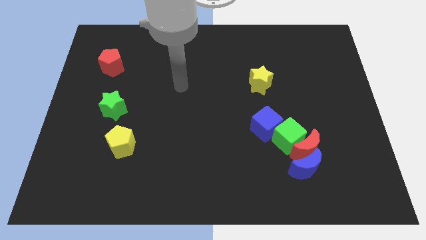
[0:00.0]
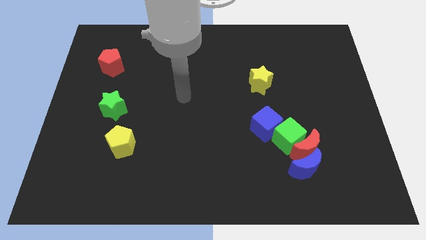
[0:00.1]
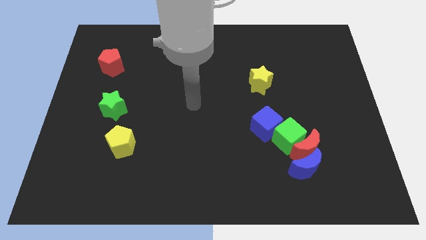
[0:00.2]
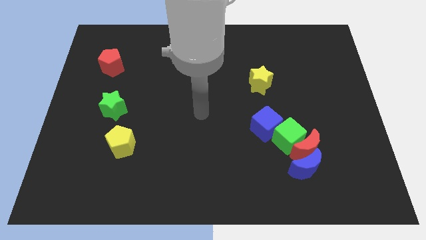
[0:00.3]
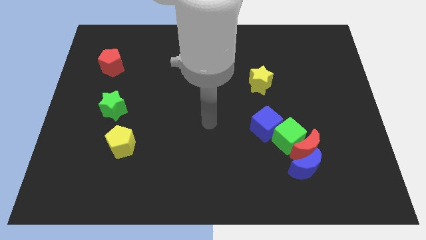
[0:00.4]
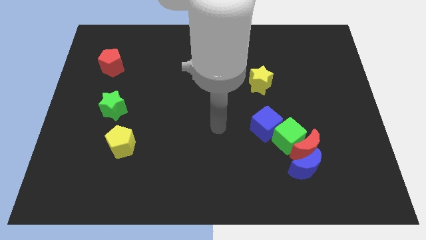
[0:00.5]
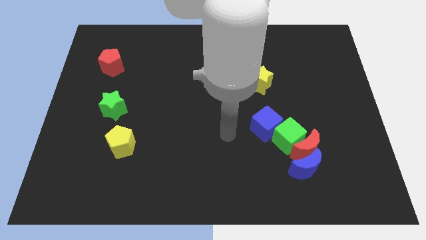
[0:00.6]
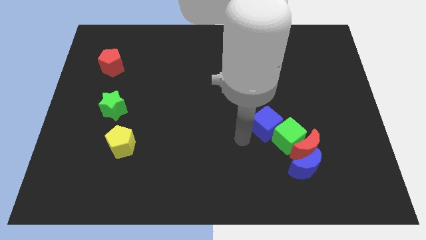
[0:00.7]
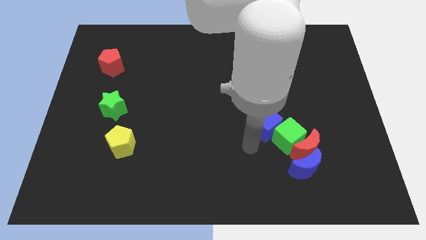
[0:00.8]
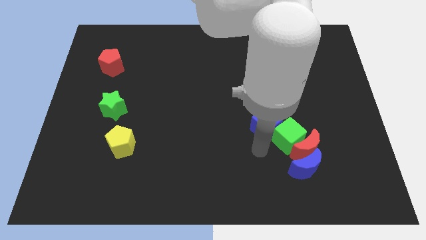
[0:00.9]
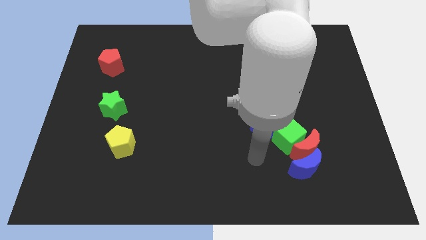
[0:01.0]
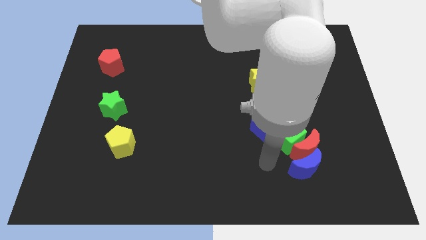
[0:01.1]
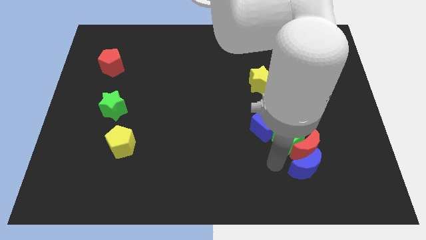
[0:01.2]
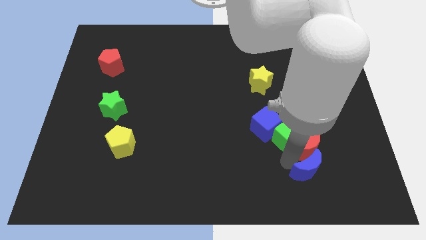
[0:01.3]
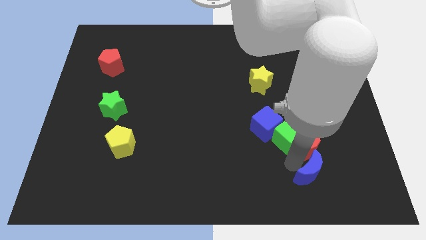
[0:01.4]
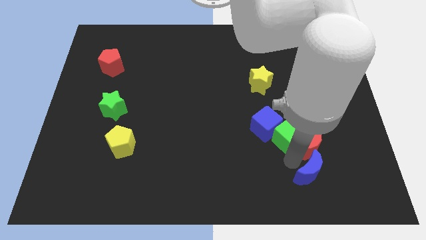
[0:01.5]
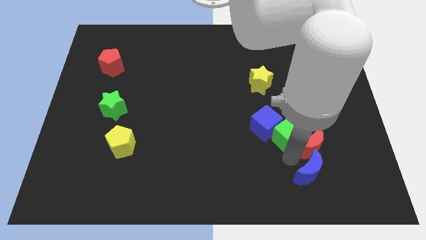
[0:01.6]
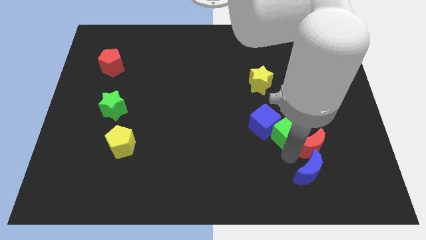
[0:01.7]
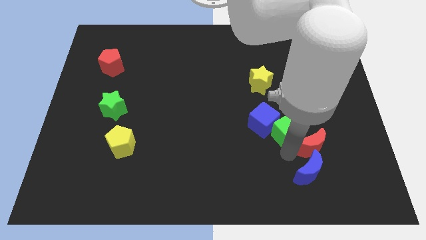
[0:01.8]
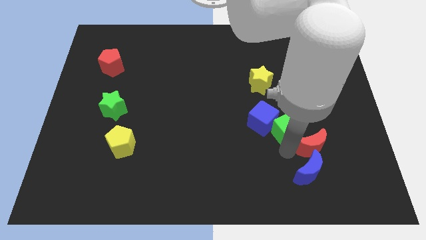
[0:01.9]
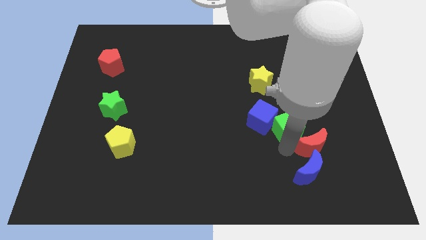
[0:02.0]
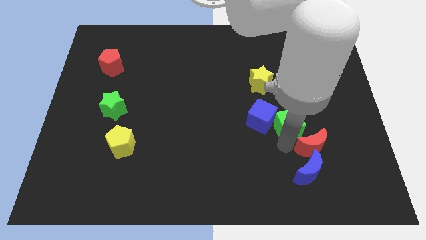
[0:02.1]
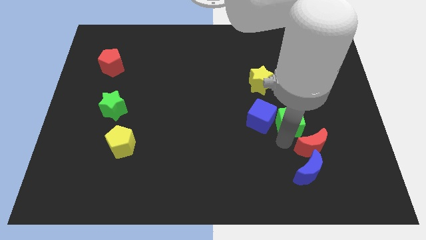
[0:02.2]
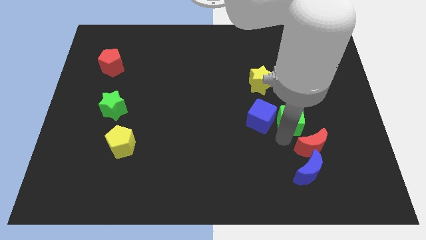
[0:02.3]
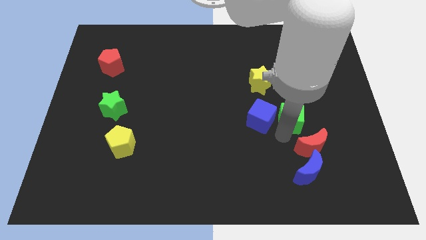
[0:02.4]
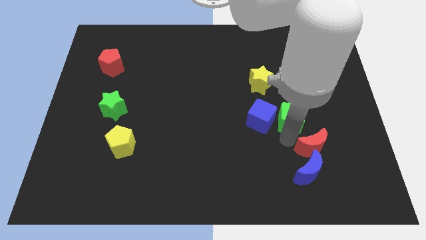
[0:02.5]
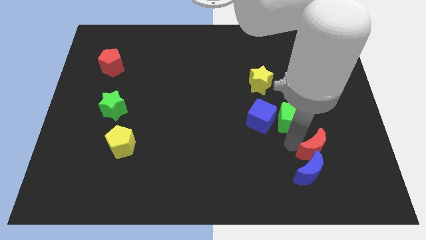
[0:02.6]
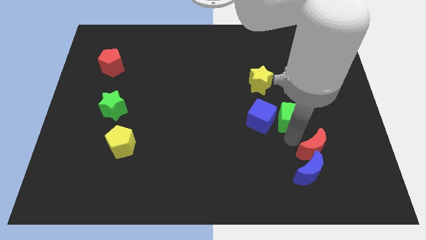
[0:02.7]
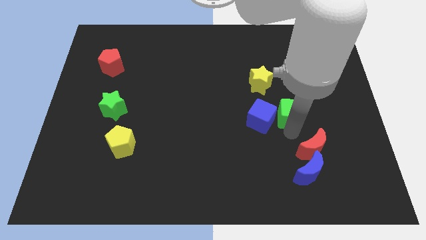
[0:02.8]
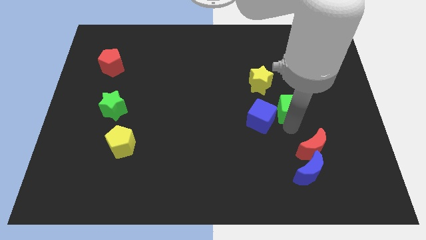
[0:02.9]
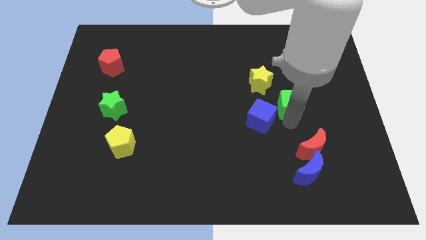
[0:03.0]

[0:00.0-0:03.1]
separate the green cube from the group

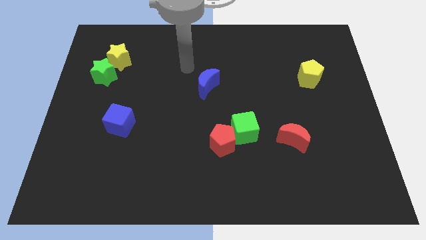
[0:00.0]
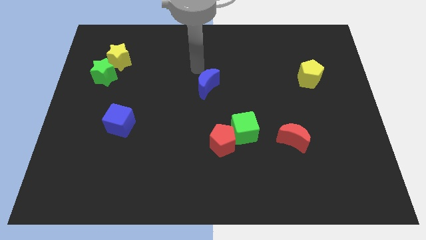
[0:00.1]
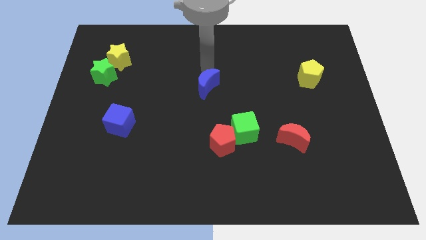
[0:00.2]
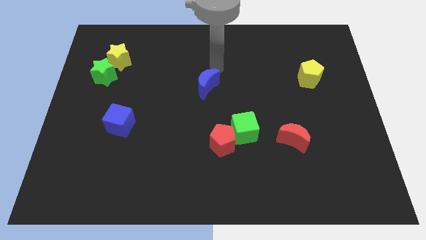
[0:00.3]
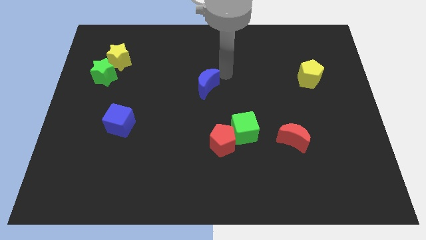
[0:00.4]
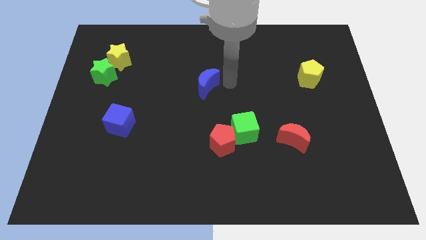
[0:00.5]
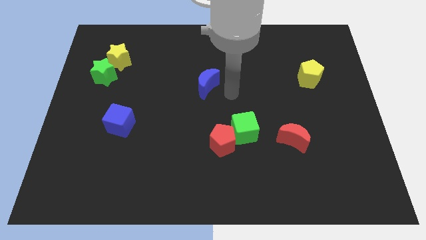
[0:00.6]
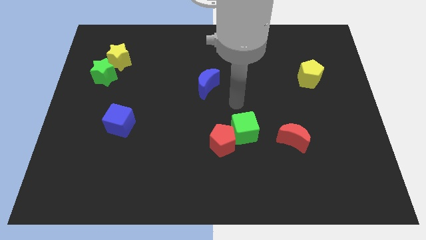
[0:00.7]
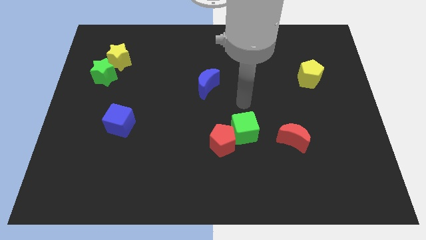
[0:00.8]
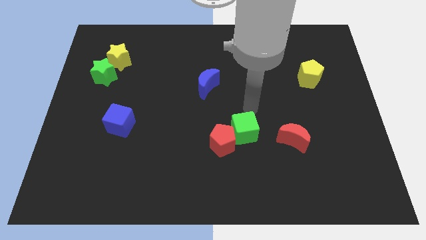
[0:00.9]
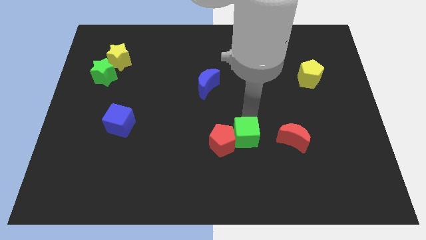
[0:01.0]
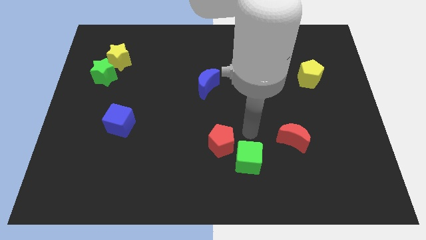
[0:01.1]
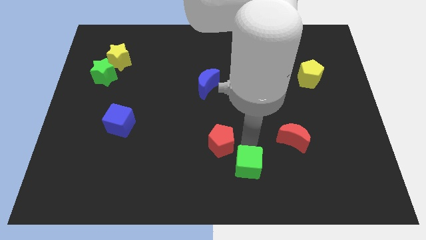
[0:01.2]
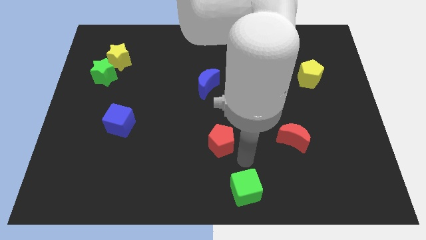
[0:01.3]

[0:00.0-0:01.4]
separate the red pentagon from the green cube

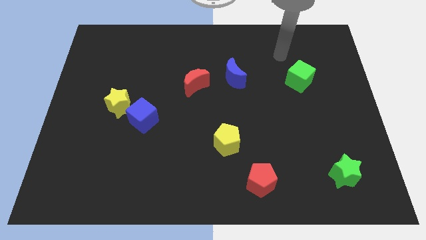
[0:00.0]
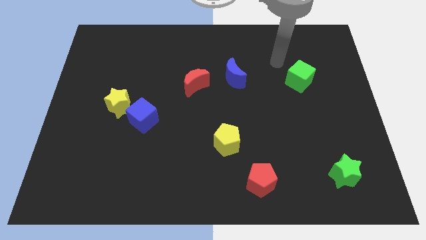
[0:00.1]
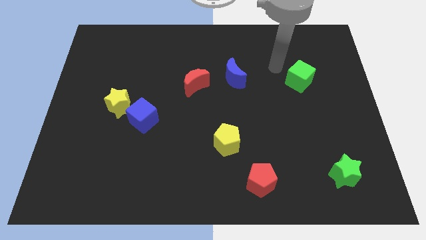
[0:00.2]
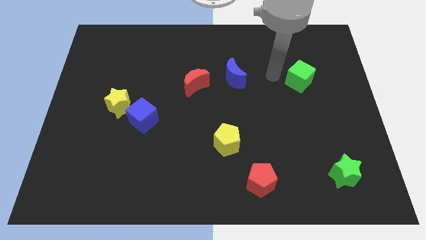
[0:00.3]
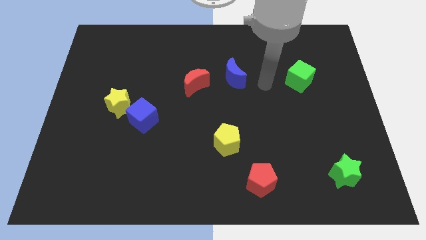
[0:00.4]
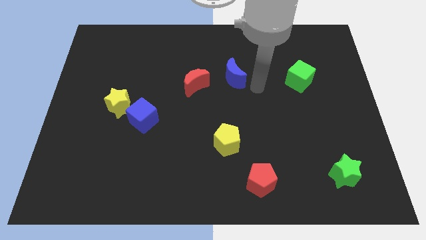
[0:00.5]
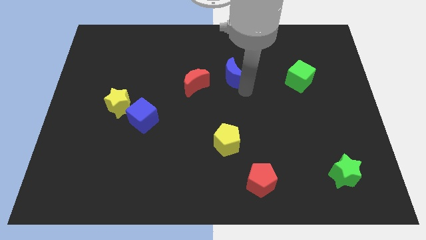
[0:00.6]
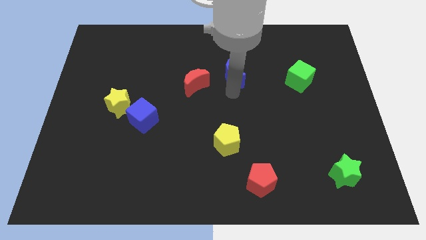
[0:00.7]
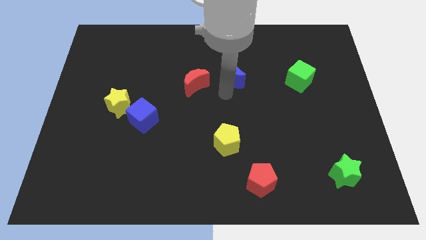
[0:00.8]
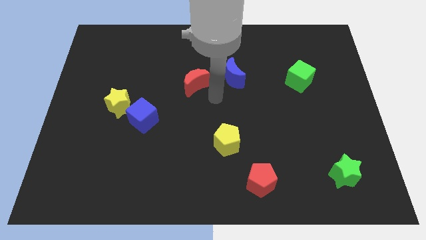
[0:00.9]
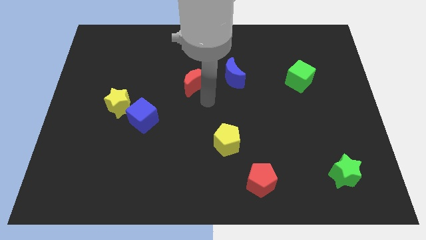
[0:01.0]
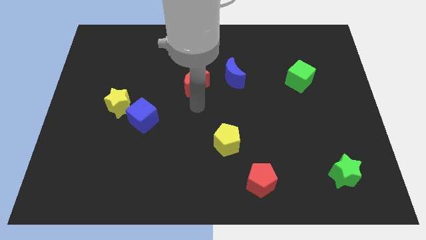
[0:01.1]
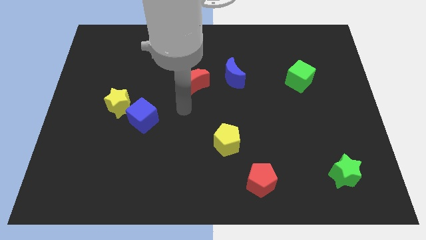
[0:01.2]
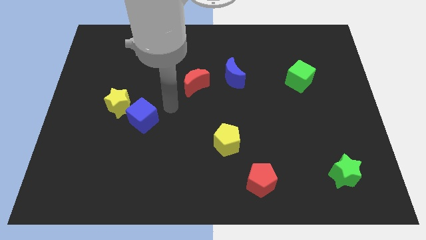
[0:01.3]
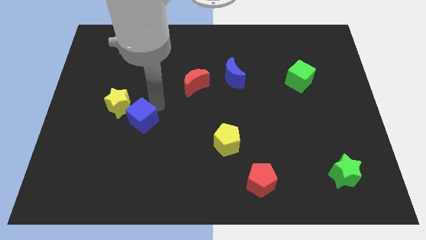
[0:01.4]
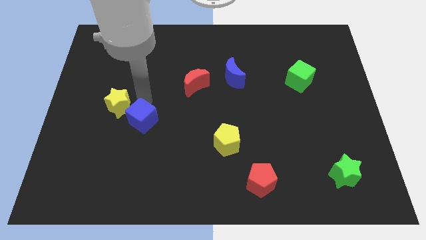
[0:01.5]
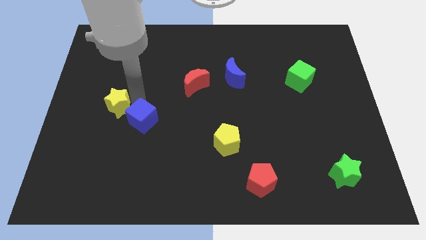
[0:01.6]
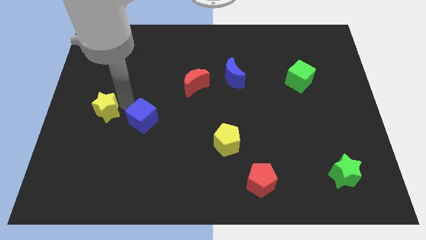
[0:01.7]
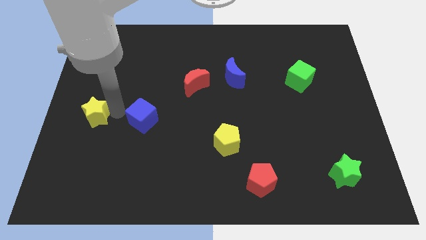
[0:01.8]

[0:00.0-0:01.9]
move the blue cube away from the yellow star

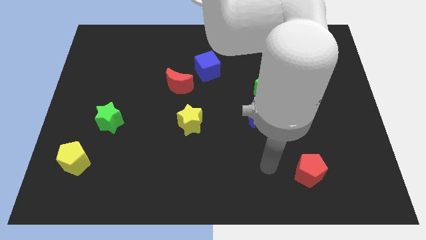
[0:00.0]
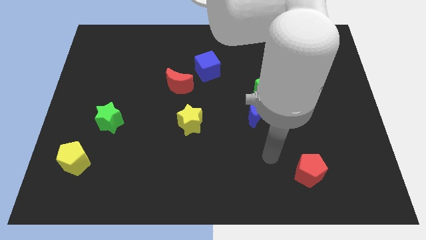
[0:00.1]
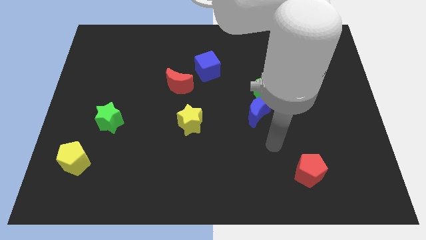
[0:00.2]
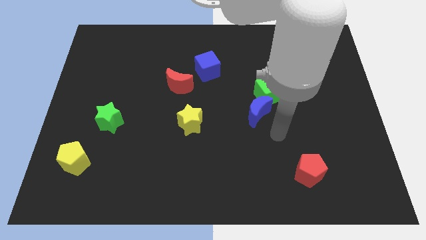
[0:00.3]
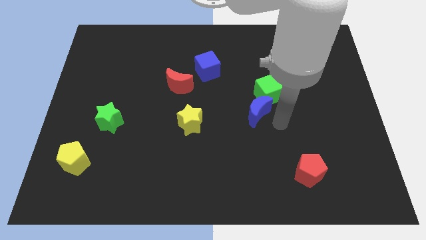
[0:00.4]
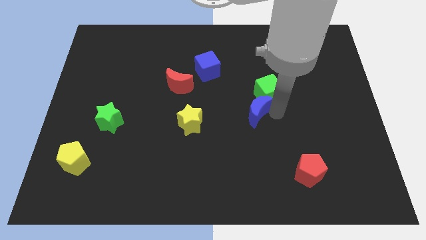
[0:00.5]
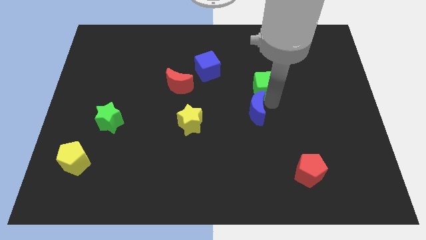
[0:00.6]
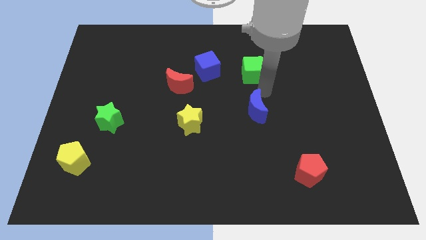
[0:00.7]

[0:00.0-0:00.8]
pull the blue moon apart from the green cube

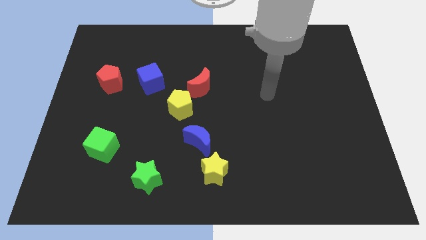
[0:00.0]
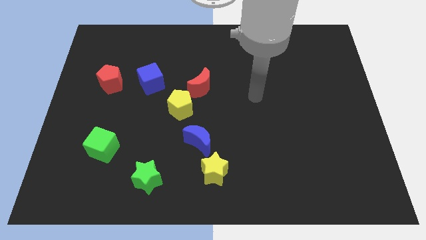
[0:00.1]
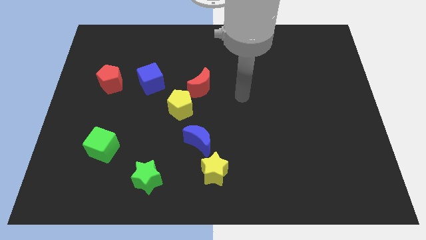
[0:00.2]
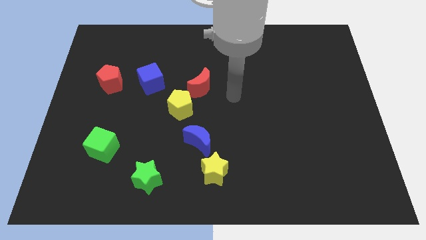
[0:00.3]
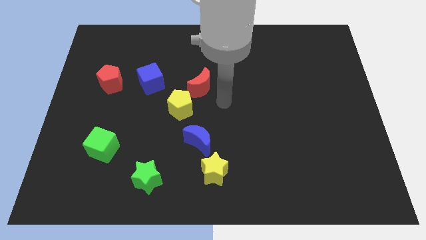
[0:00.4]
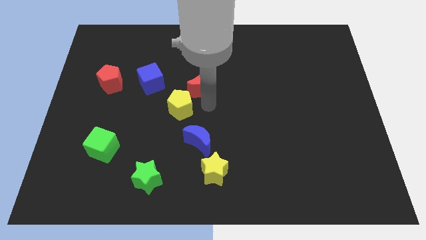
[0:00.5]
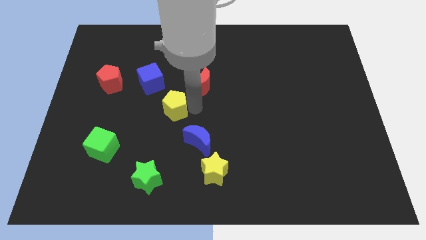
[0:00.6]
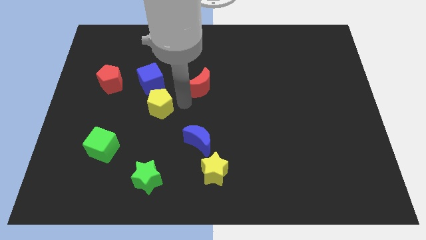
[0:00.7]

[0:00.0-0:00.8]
separate the red moon from the yellow pentagon

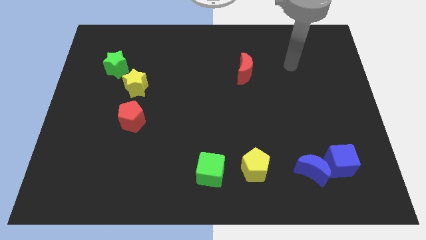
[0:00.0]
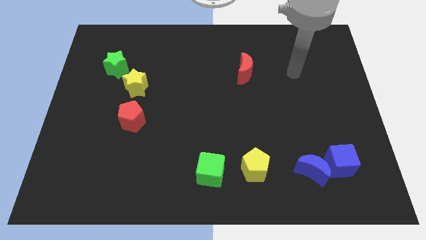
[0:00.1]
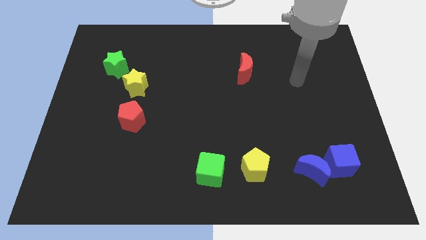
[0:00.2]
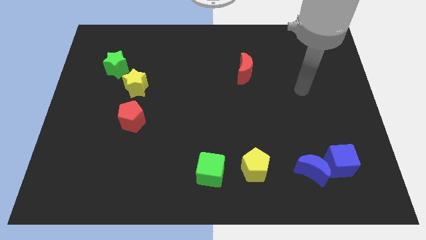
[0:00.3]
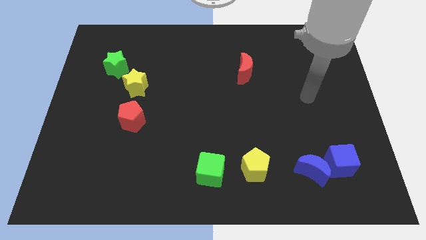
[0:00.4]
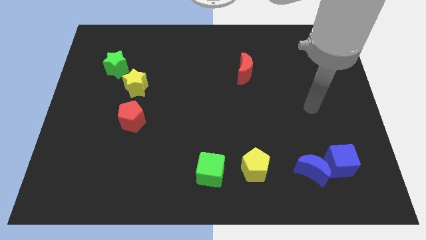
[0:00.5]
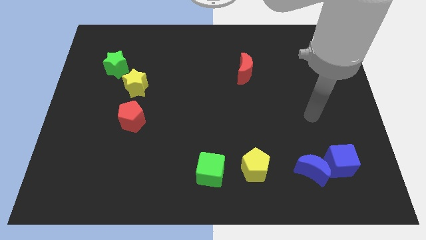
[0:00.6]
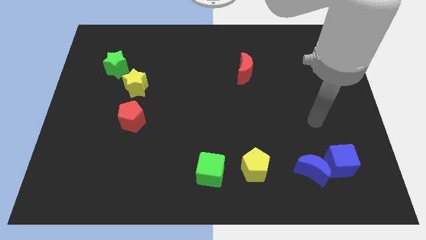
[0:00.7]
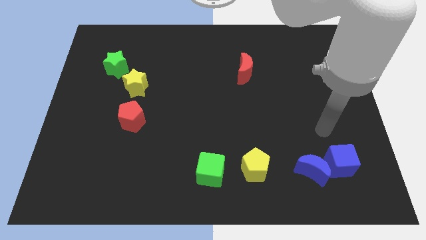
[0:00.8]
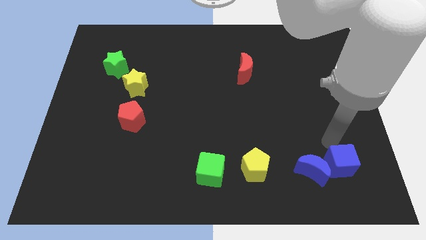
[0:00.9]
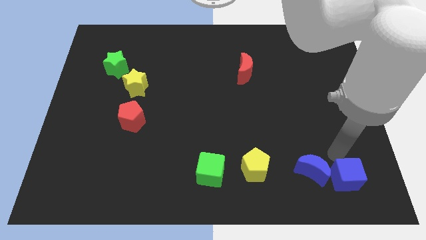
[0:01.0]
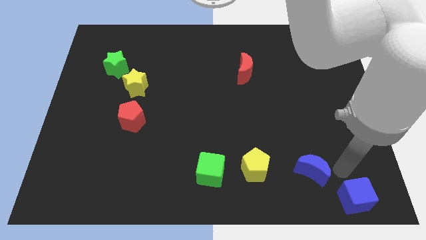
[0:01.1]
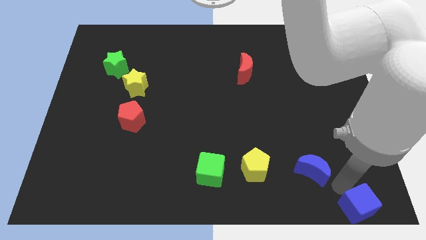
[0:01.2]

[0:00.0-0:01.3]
pull the blue moon apart from the blue cube
